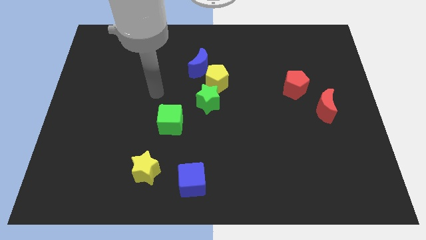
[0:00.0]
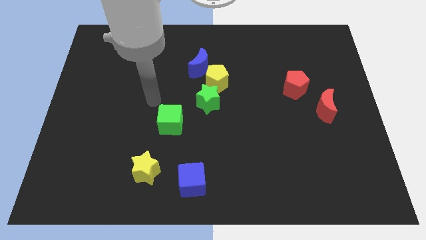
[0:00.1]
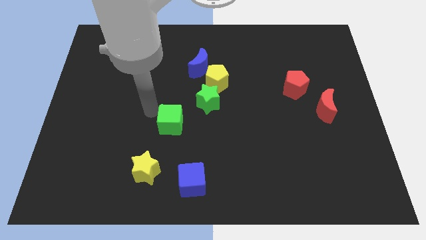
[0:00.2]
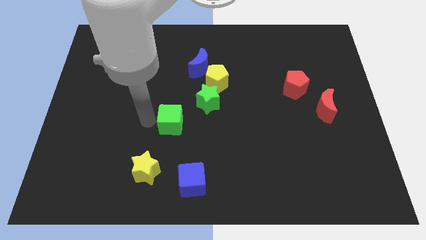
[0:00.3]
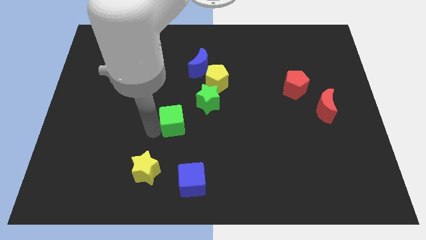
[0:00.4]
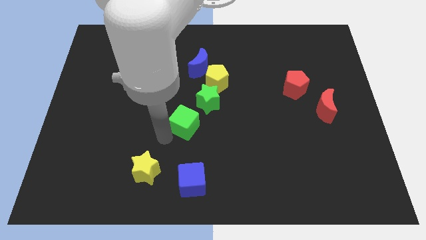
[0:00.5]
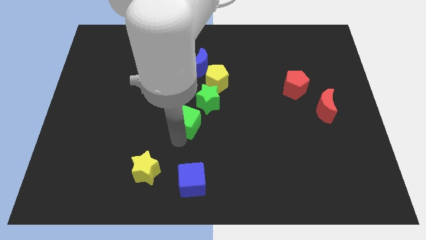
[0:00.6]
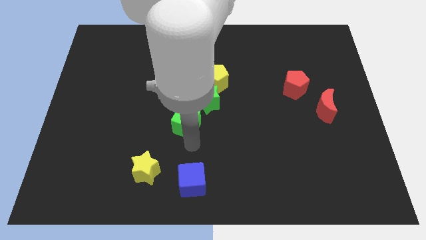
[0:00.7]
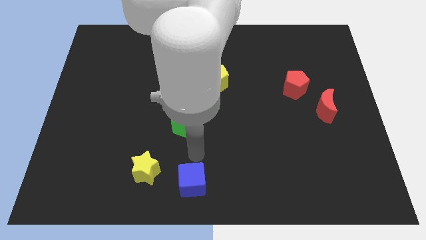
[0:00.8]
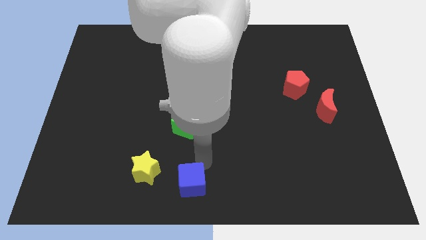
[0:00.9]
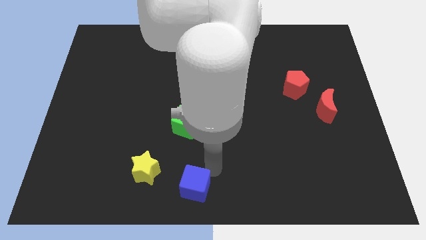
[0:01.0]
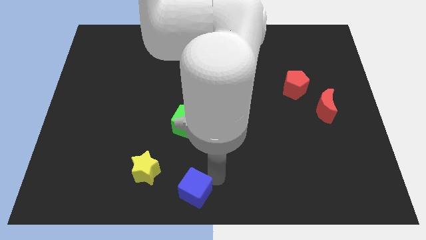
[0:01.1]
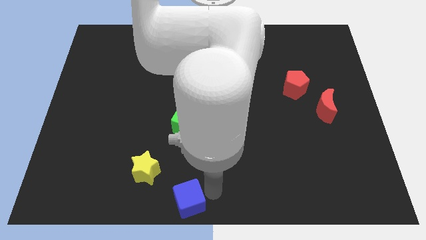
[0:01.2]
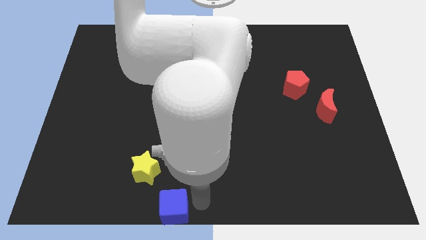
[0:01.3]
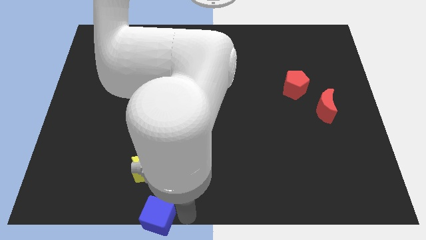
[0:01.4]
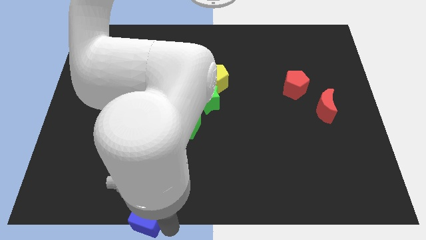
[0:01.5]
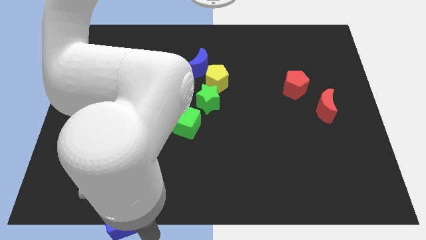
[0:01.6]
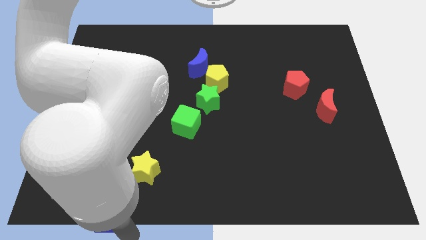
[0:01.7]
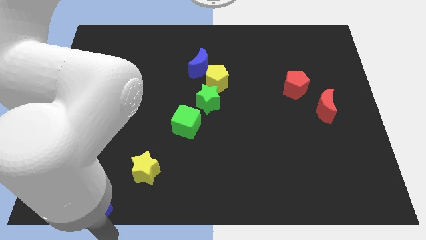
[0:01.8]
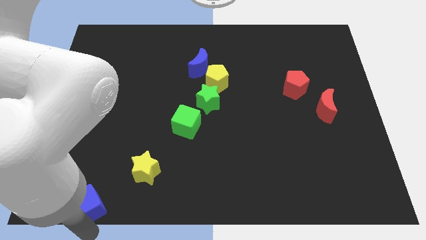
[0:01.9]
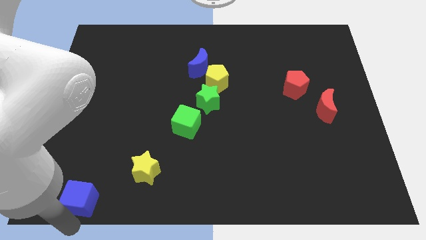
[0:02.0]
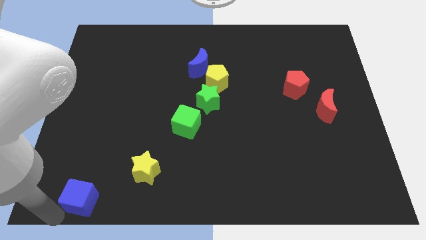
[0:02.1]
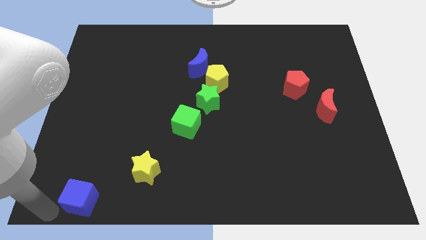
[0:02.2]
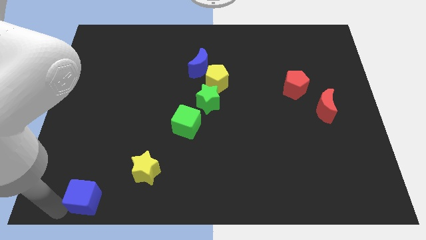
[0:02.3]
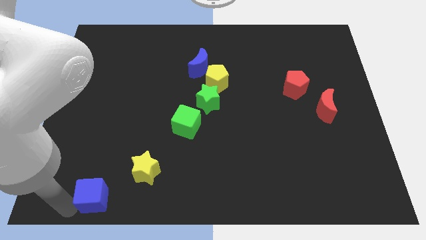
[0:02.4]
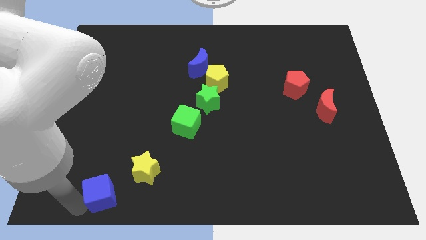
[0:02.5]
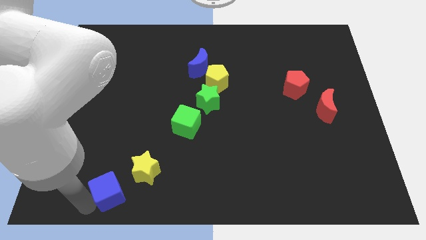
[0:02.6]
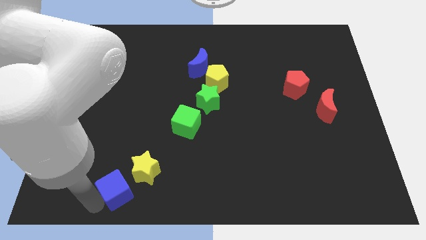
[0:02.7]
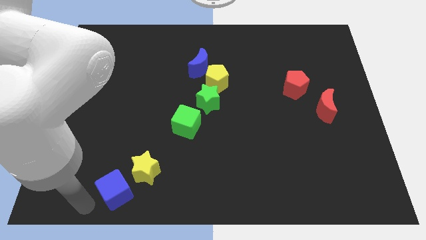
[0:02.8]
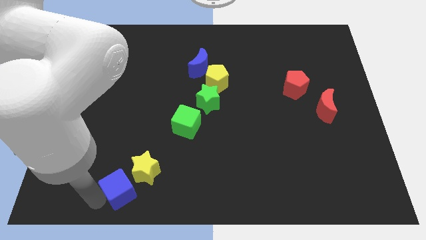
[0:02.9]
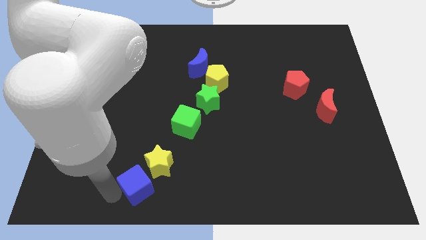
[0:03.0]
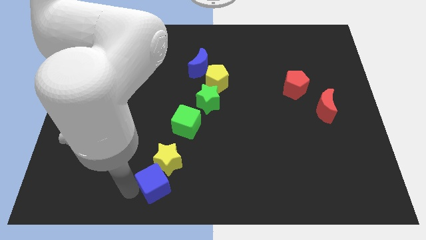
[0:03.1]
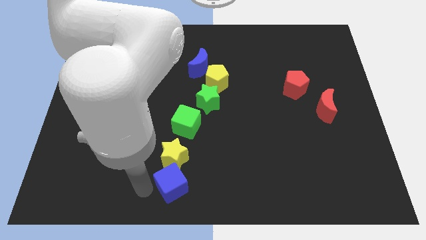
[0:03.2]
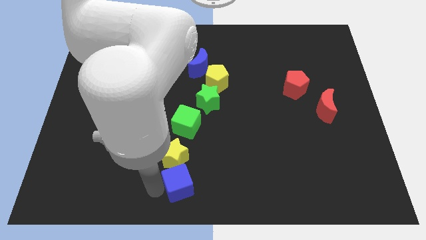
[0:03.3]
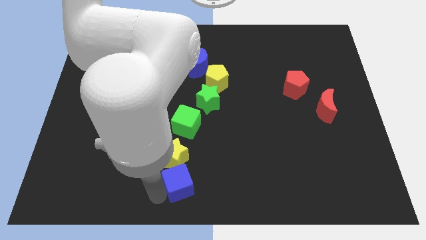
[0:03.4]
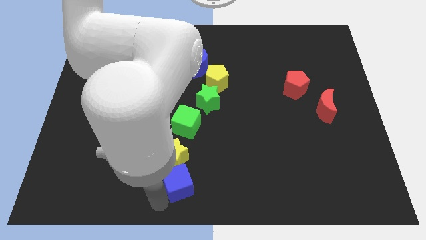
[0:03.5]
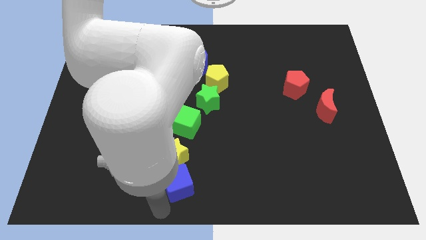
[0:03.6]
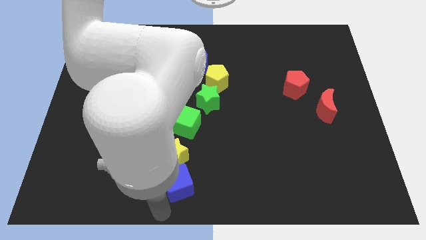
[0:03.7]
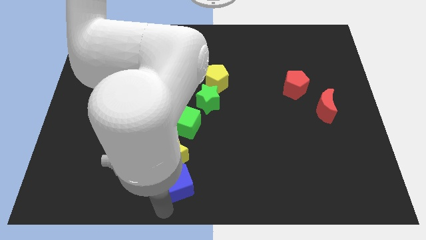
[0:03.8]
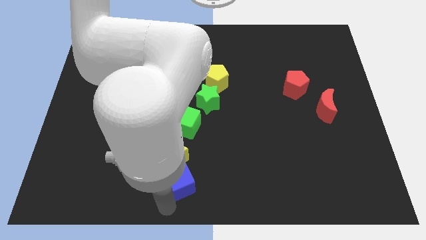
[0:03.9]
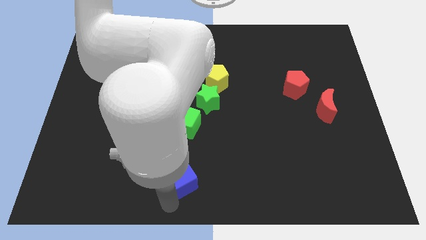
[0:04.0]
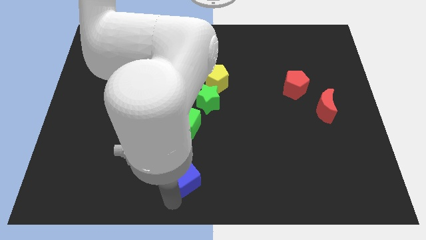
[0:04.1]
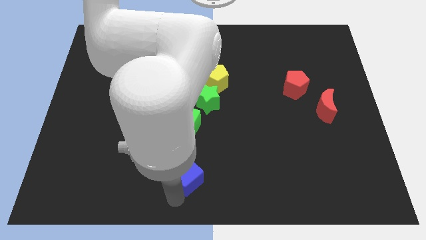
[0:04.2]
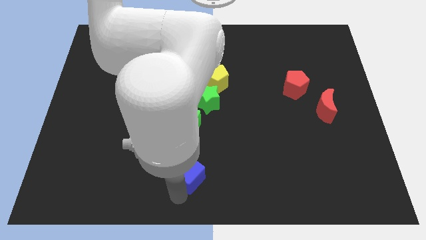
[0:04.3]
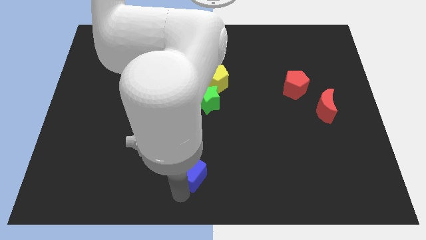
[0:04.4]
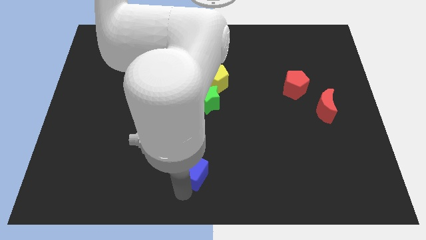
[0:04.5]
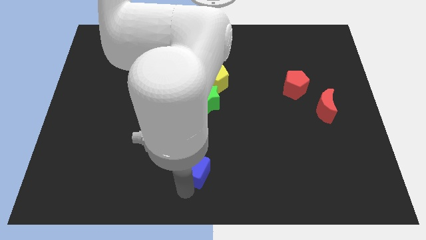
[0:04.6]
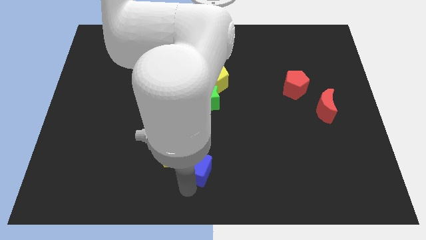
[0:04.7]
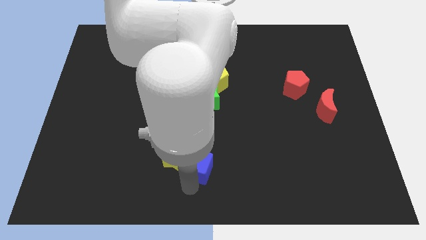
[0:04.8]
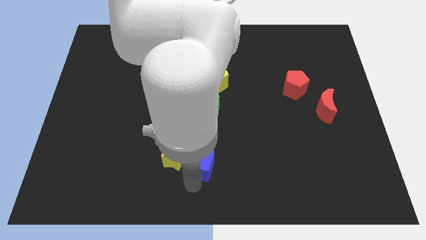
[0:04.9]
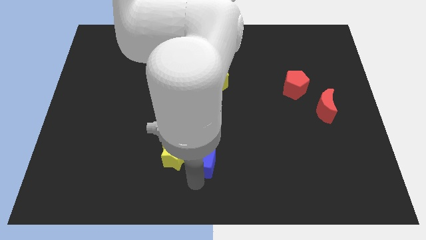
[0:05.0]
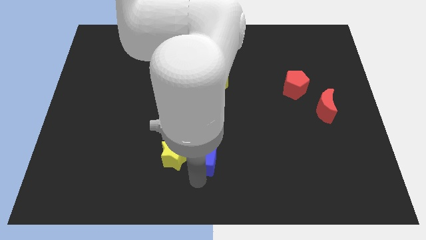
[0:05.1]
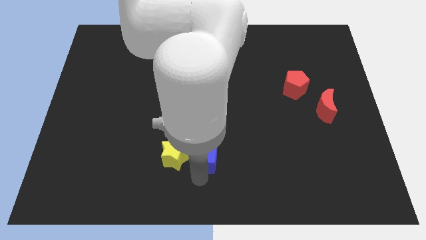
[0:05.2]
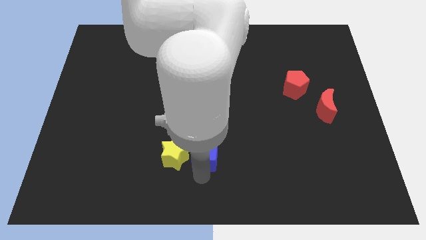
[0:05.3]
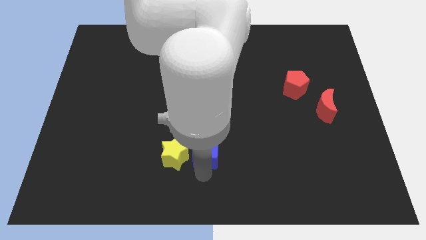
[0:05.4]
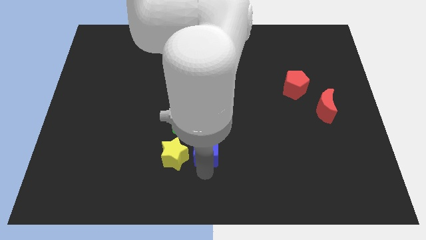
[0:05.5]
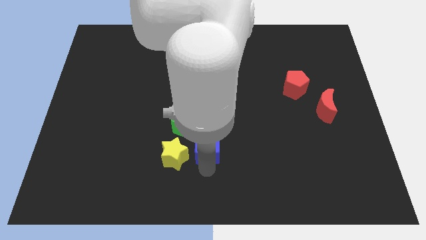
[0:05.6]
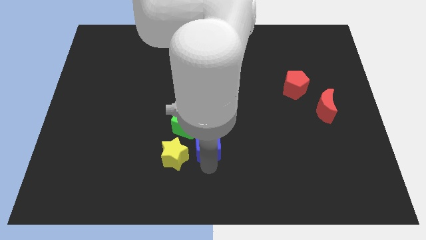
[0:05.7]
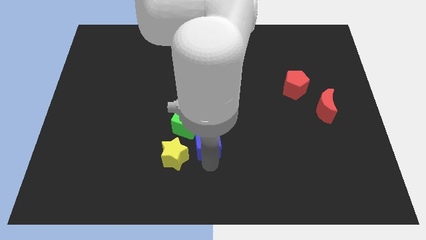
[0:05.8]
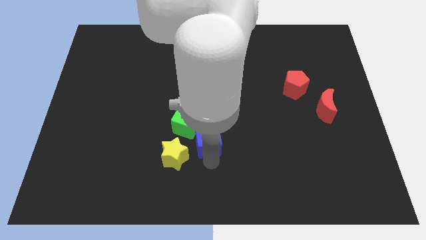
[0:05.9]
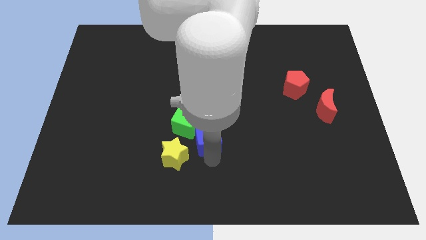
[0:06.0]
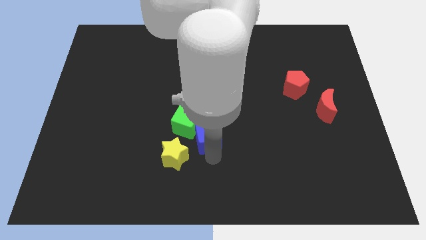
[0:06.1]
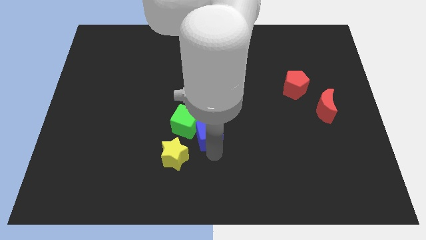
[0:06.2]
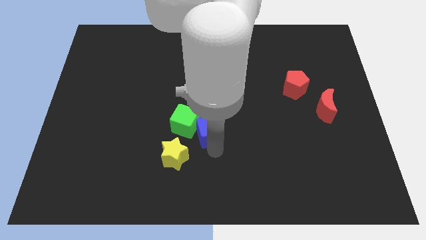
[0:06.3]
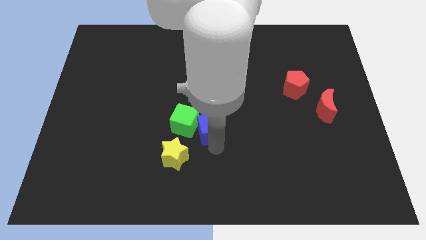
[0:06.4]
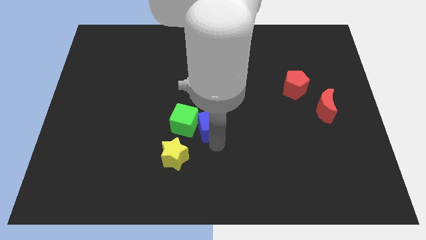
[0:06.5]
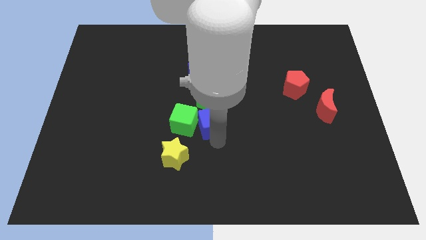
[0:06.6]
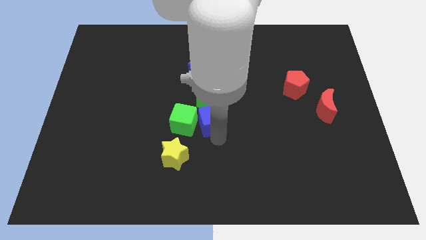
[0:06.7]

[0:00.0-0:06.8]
slide the blue cube towards the green star
